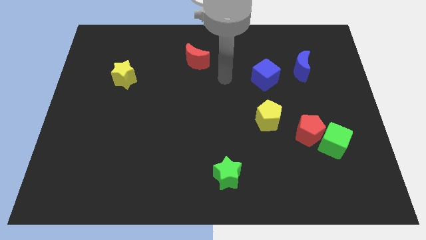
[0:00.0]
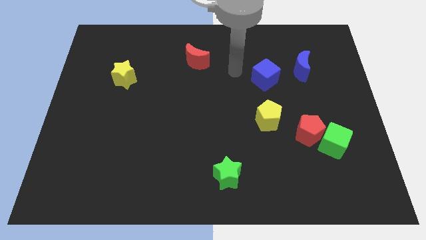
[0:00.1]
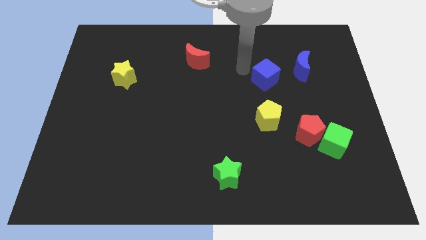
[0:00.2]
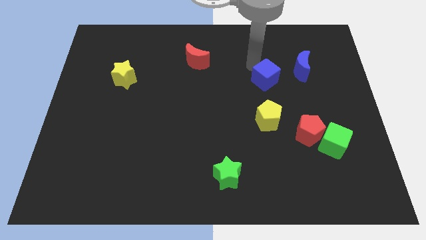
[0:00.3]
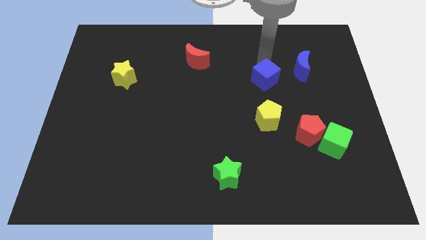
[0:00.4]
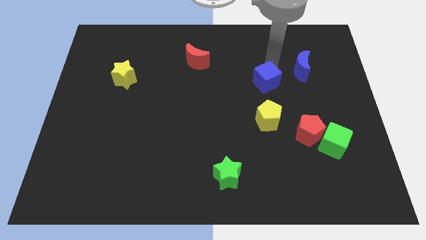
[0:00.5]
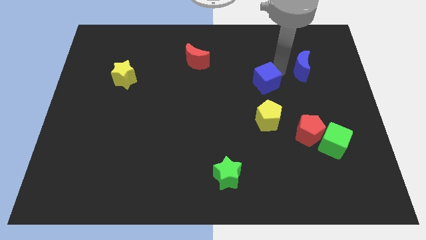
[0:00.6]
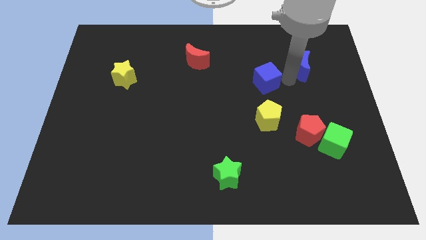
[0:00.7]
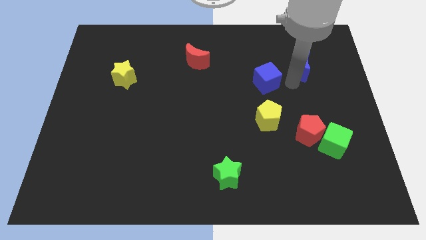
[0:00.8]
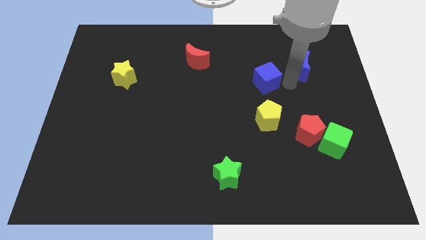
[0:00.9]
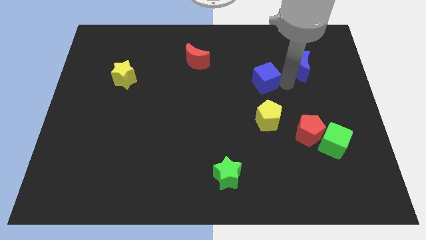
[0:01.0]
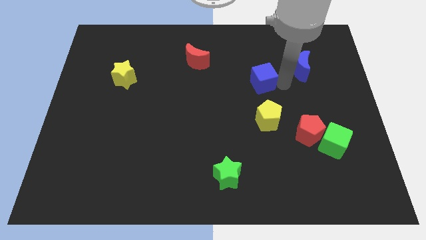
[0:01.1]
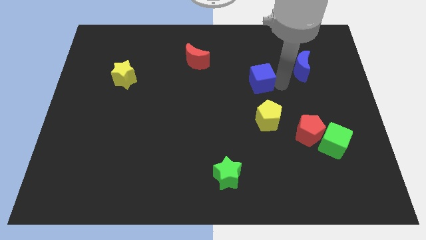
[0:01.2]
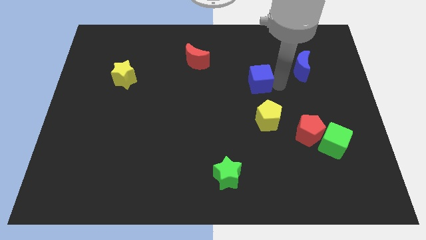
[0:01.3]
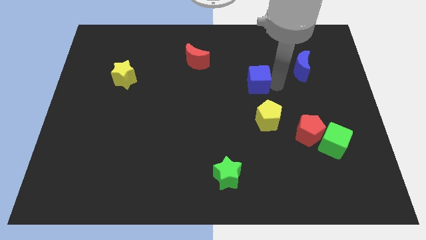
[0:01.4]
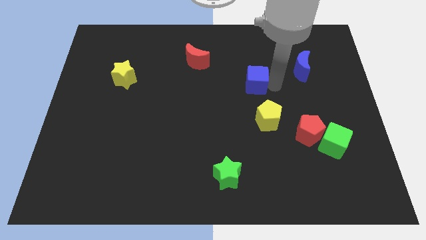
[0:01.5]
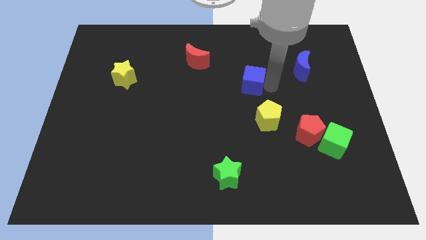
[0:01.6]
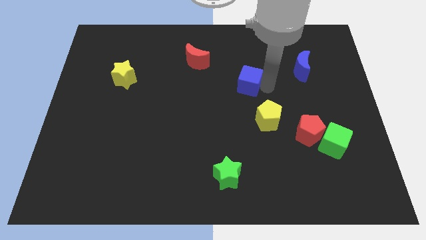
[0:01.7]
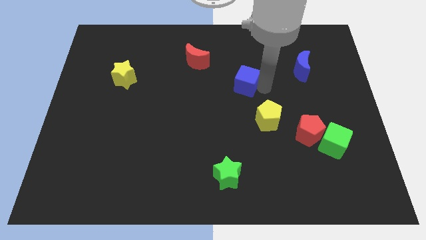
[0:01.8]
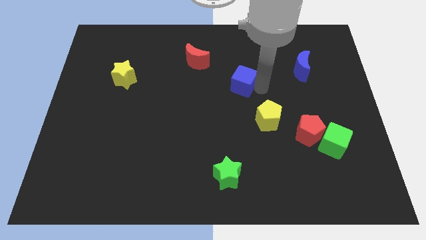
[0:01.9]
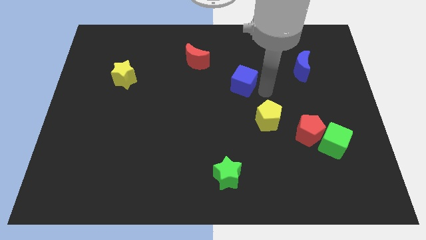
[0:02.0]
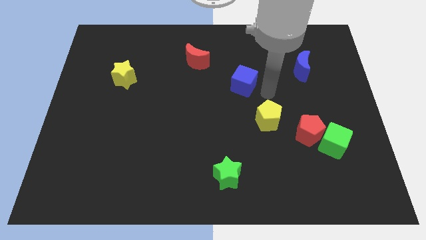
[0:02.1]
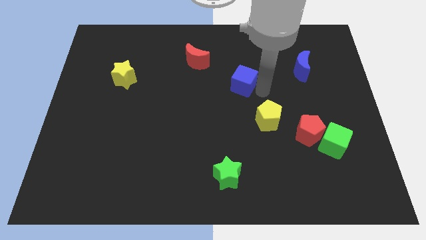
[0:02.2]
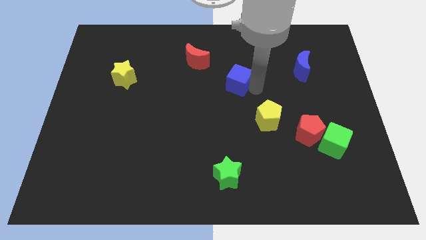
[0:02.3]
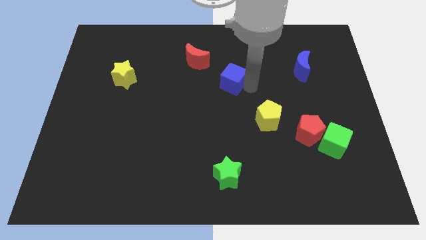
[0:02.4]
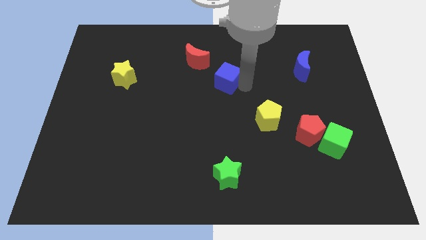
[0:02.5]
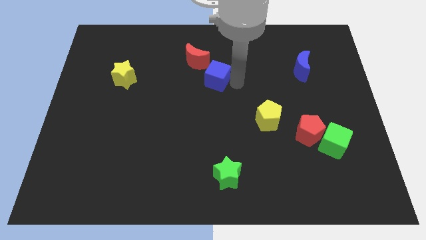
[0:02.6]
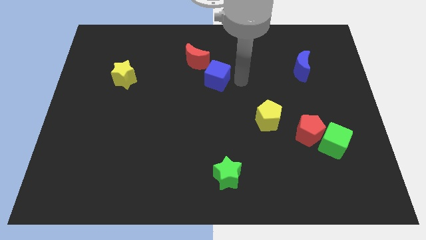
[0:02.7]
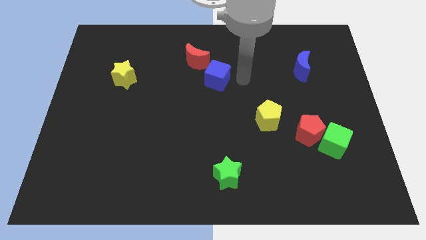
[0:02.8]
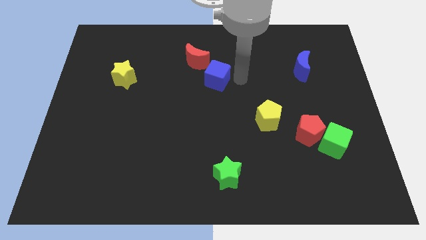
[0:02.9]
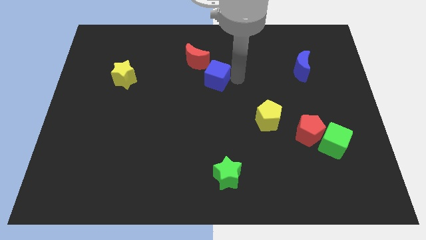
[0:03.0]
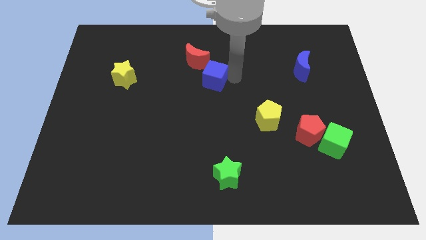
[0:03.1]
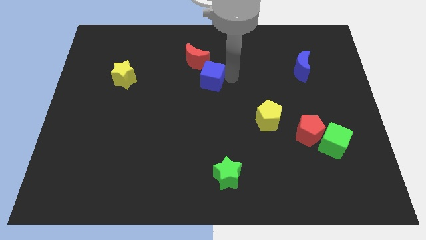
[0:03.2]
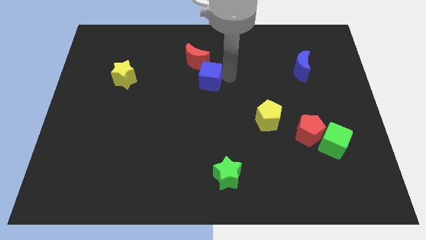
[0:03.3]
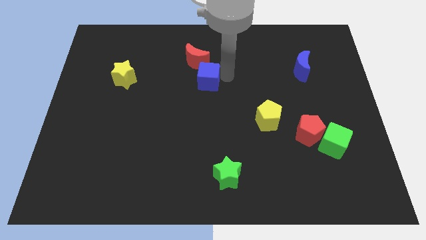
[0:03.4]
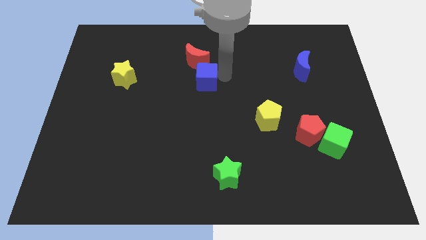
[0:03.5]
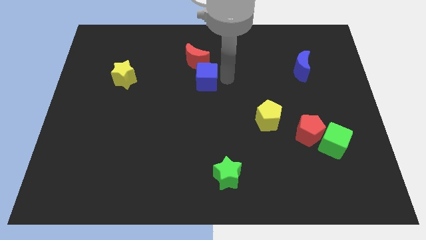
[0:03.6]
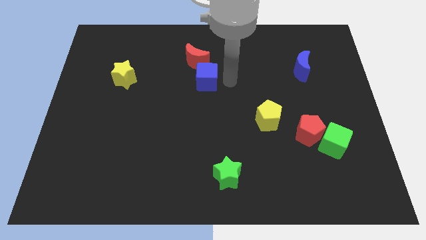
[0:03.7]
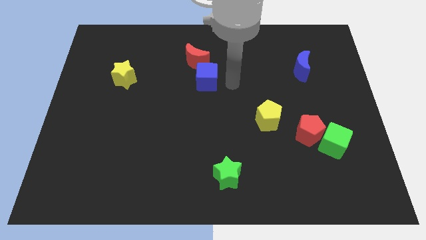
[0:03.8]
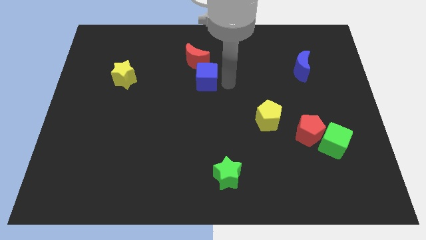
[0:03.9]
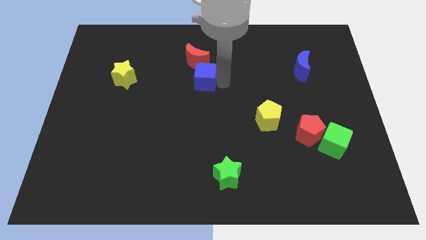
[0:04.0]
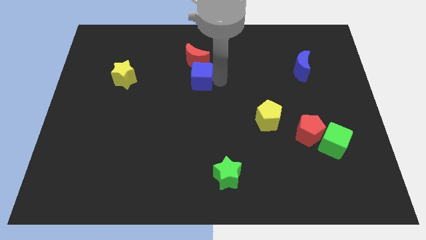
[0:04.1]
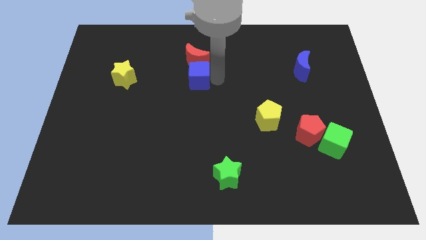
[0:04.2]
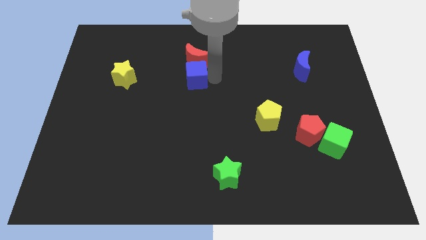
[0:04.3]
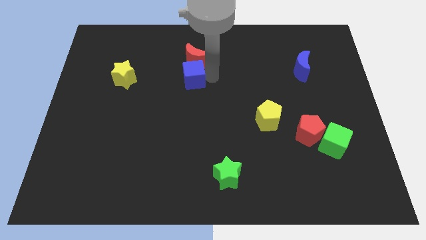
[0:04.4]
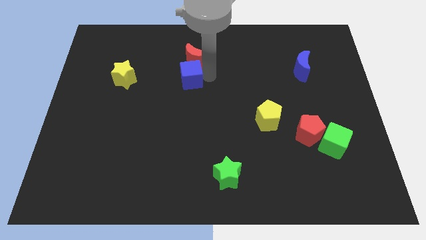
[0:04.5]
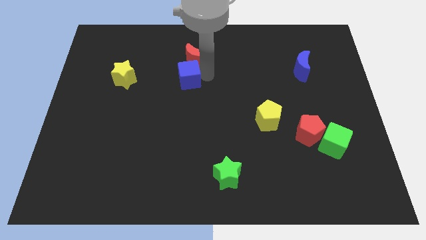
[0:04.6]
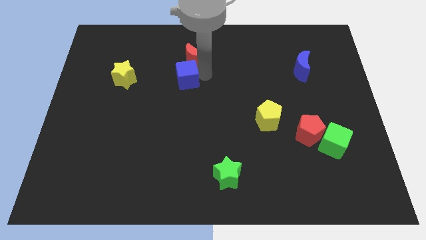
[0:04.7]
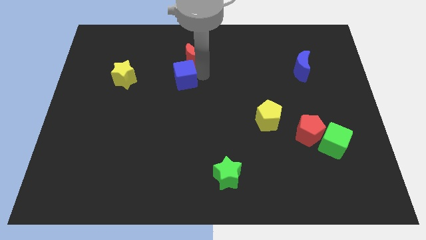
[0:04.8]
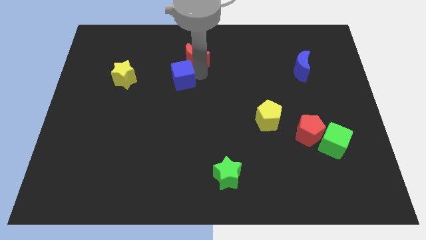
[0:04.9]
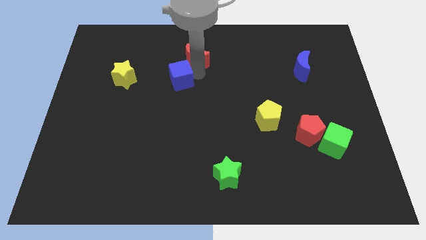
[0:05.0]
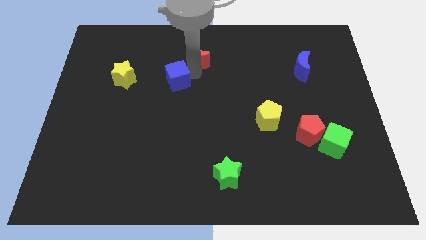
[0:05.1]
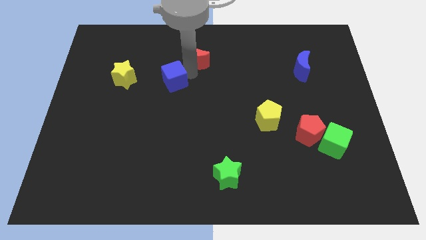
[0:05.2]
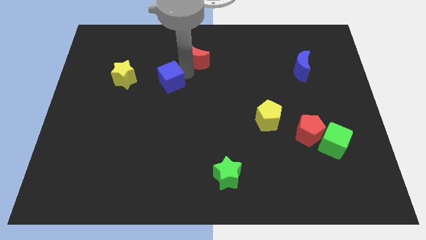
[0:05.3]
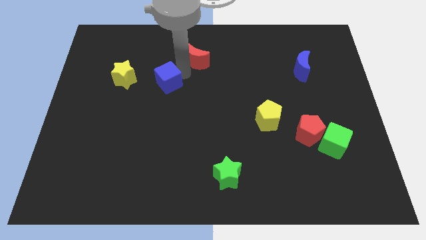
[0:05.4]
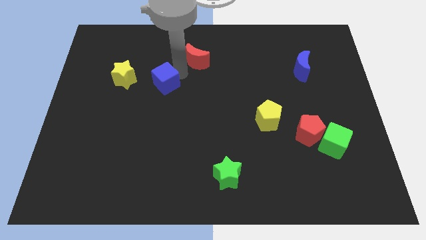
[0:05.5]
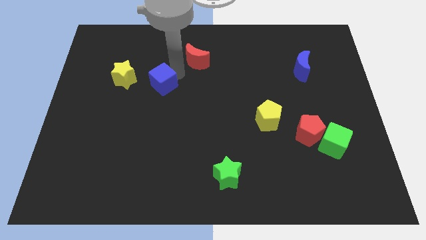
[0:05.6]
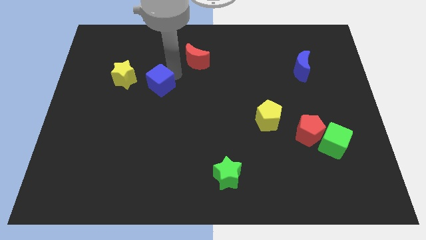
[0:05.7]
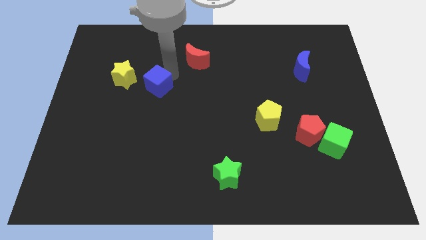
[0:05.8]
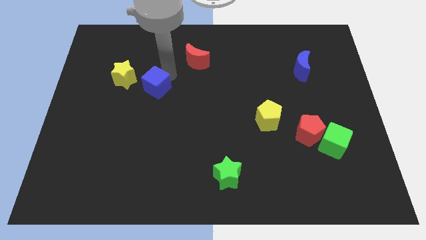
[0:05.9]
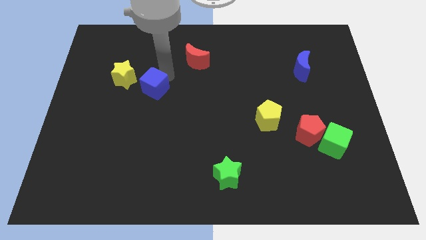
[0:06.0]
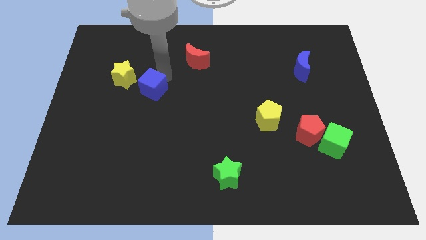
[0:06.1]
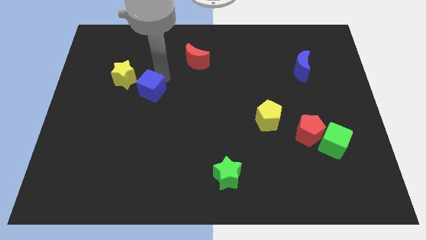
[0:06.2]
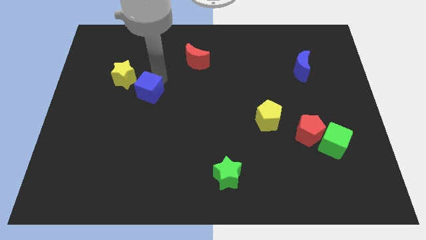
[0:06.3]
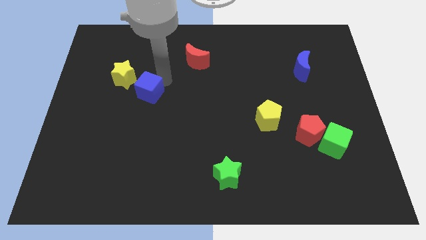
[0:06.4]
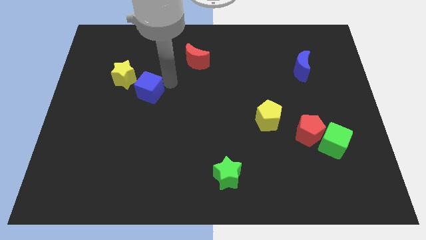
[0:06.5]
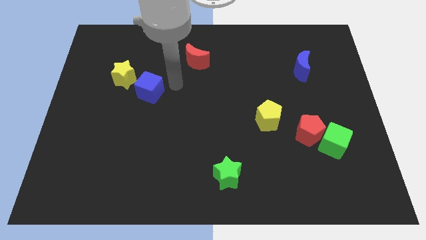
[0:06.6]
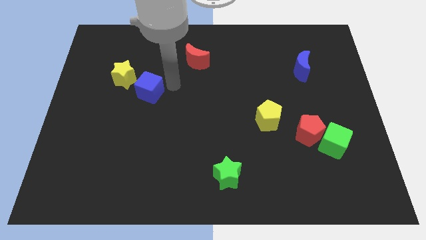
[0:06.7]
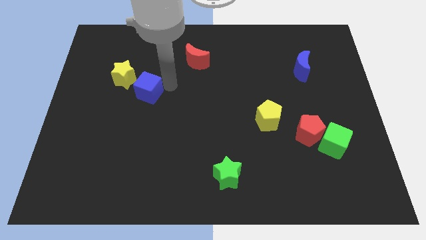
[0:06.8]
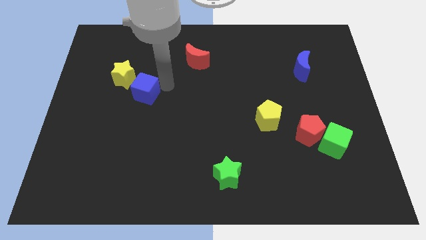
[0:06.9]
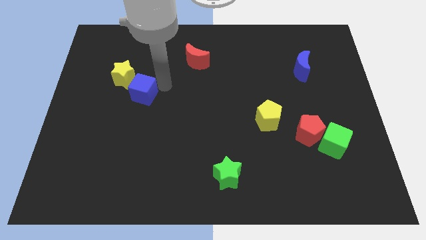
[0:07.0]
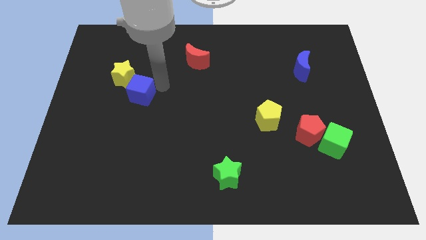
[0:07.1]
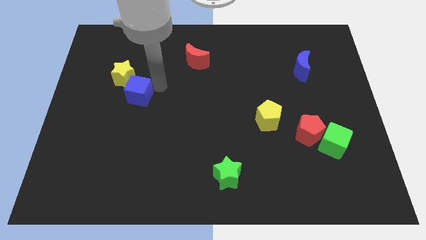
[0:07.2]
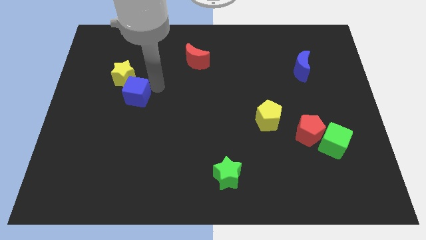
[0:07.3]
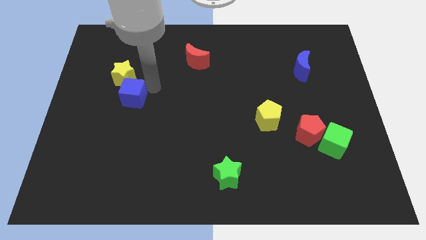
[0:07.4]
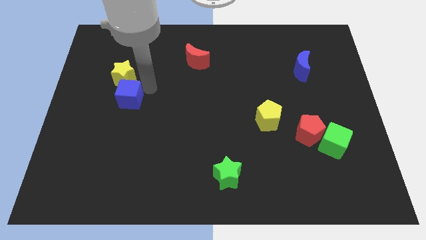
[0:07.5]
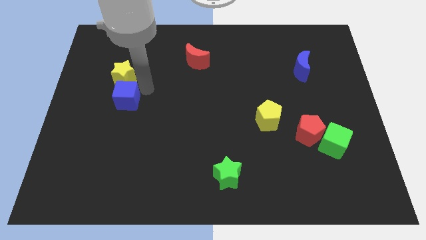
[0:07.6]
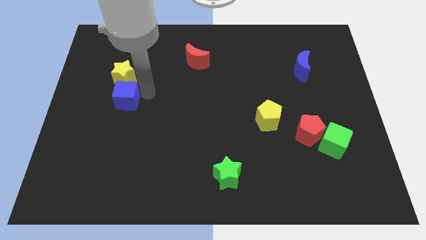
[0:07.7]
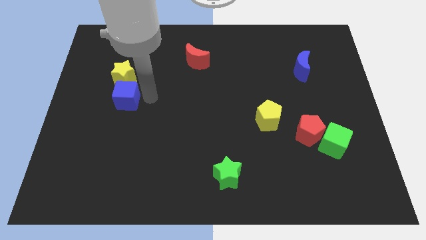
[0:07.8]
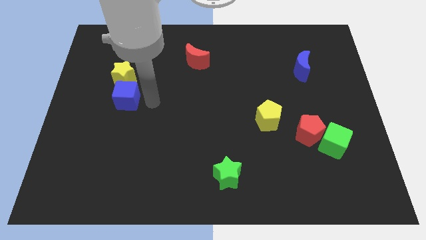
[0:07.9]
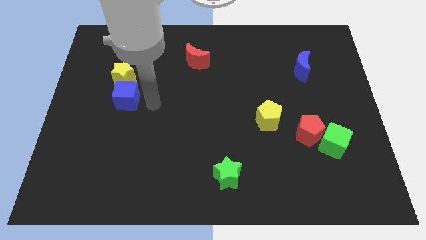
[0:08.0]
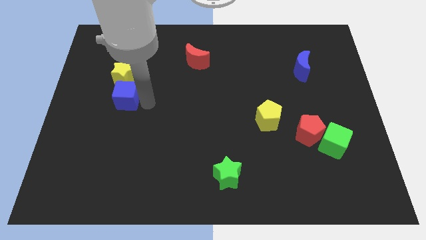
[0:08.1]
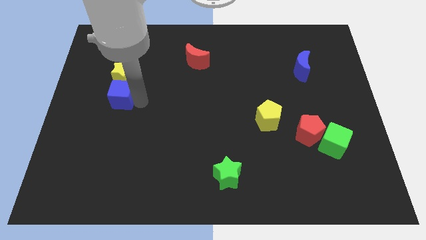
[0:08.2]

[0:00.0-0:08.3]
move the blue cube to the bottom left of the yellow star

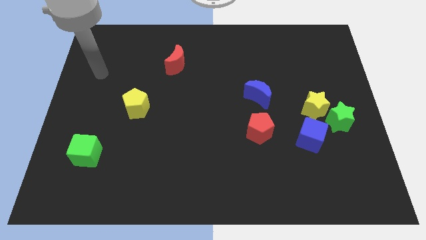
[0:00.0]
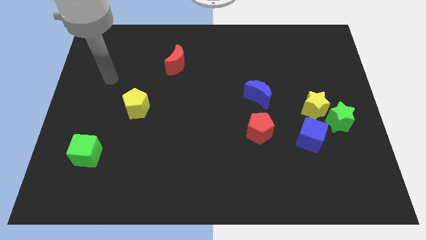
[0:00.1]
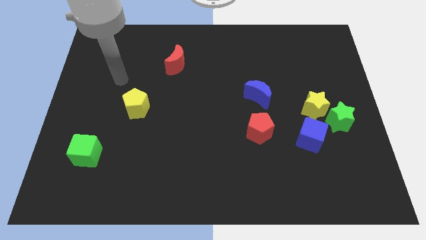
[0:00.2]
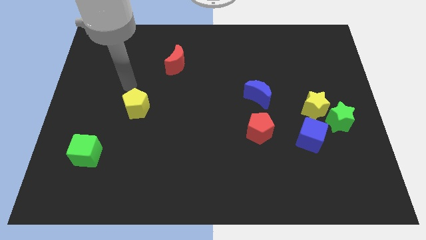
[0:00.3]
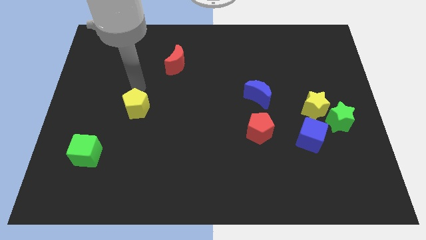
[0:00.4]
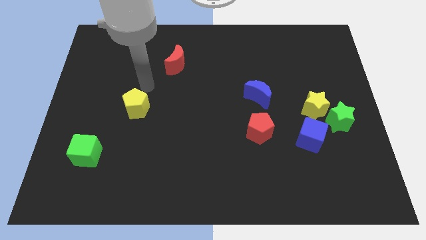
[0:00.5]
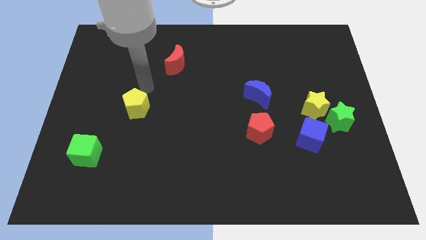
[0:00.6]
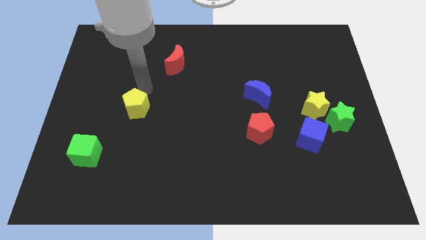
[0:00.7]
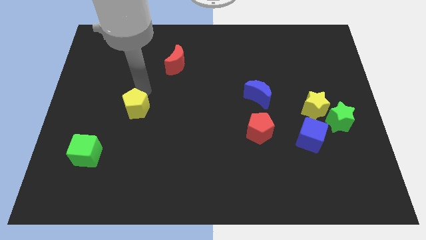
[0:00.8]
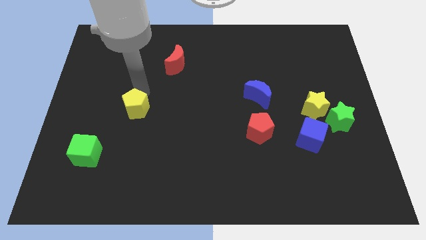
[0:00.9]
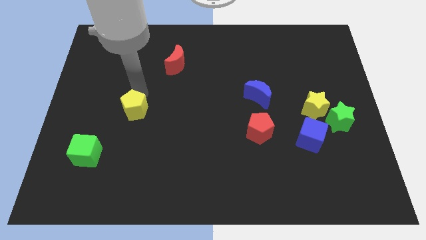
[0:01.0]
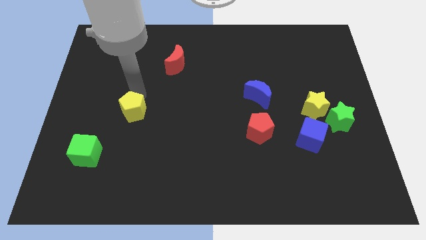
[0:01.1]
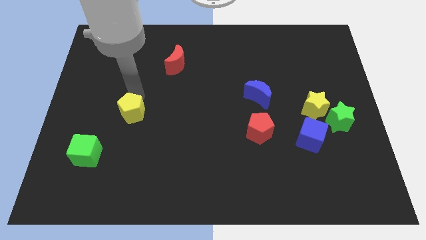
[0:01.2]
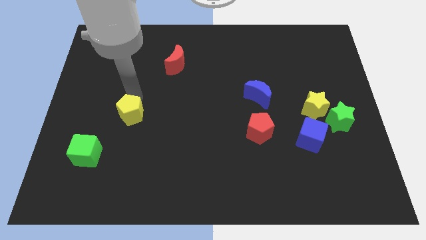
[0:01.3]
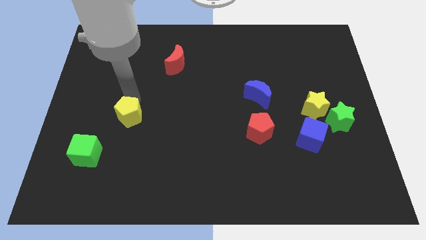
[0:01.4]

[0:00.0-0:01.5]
slide the yellow pentagon to the top right side of the green cube
